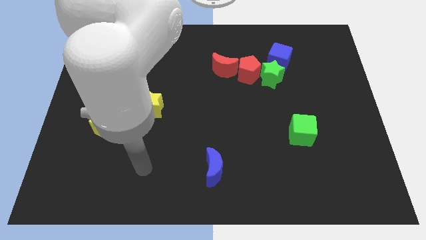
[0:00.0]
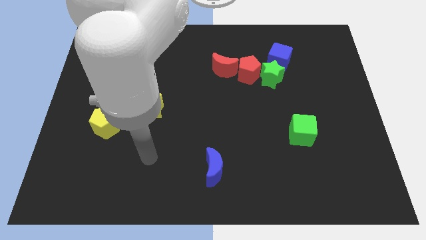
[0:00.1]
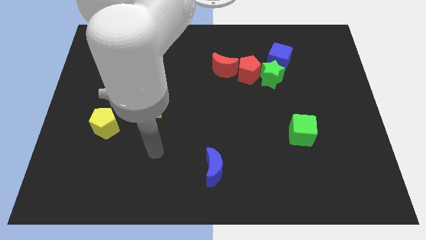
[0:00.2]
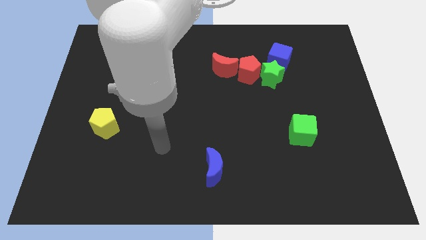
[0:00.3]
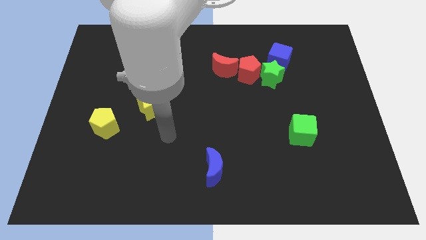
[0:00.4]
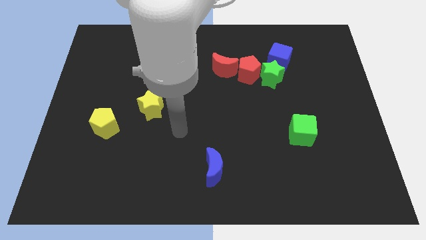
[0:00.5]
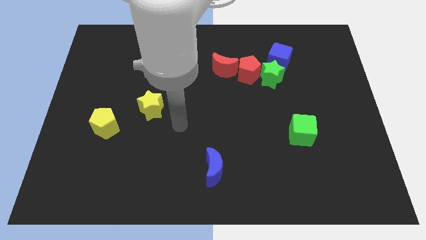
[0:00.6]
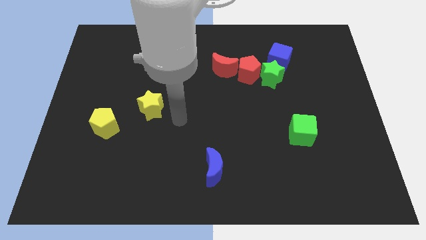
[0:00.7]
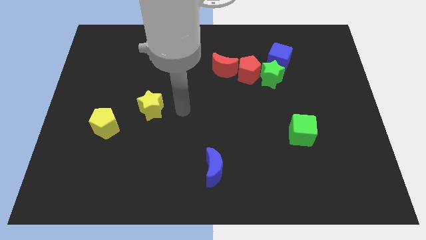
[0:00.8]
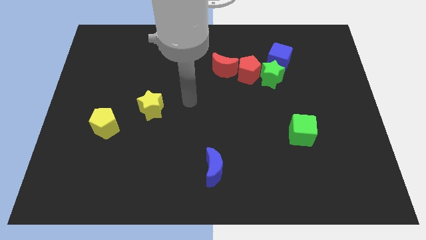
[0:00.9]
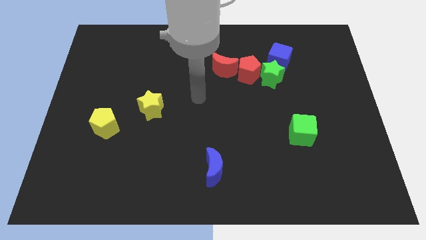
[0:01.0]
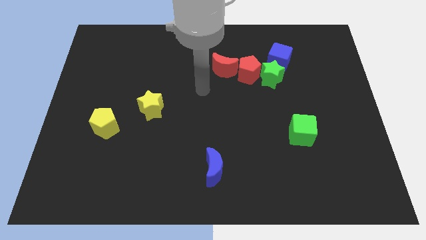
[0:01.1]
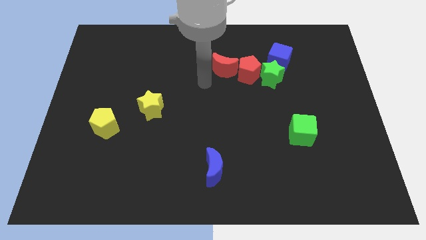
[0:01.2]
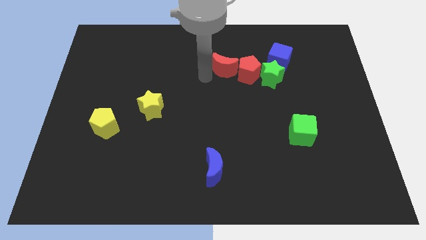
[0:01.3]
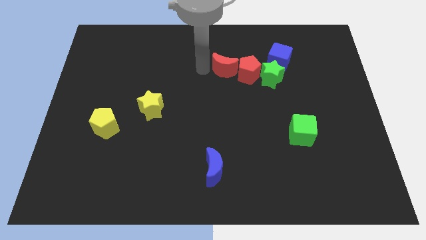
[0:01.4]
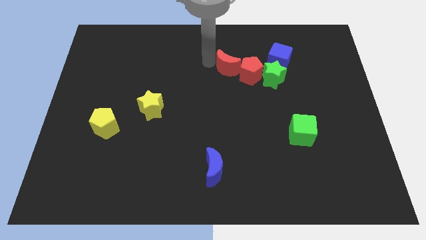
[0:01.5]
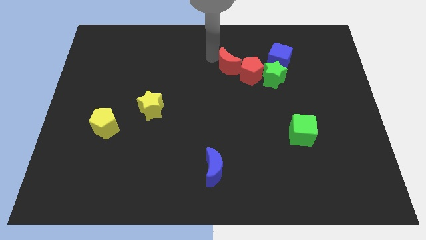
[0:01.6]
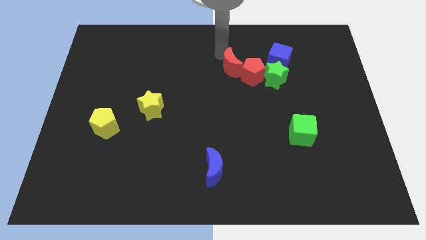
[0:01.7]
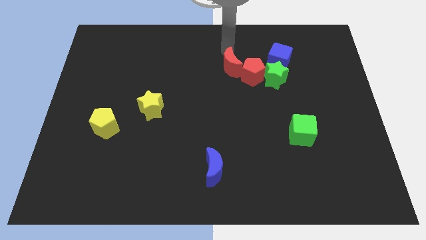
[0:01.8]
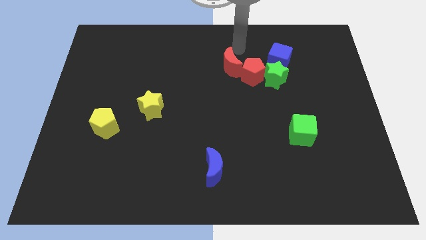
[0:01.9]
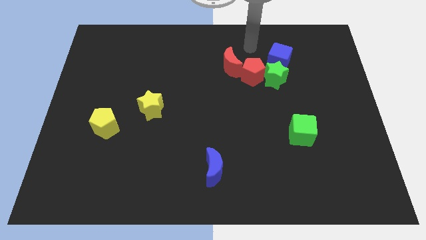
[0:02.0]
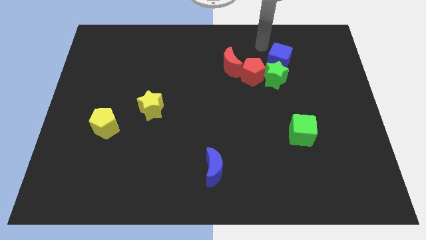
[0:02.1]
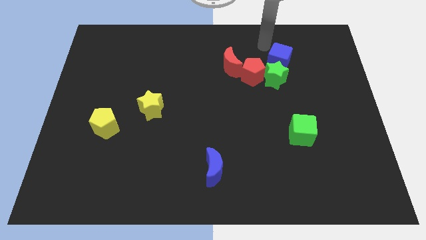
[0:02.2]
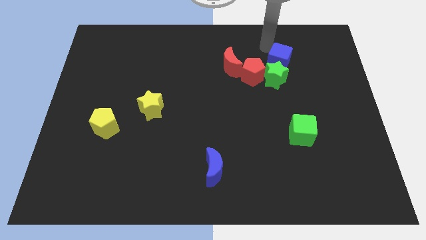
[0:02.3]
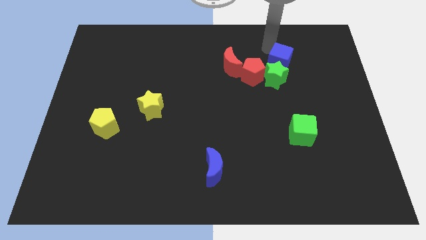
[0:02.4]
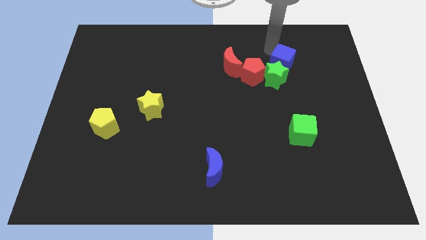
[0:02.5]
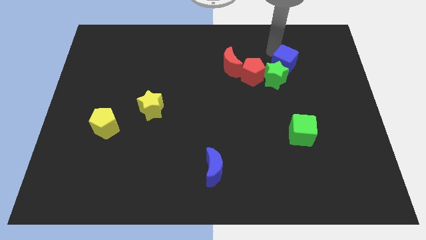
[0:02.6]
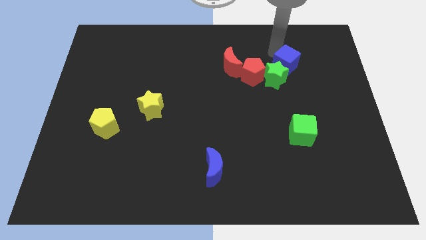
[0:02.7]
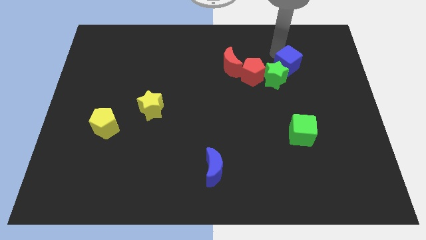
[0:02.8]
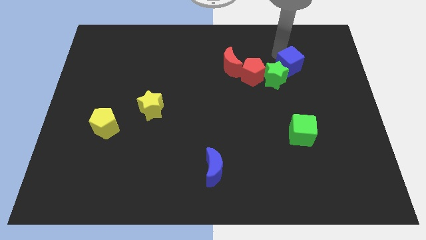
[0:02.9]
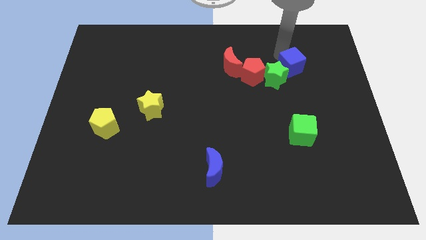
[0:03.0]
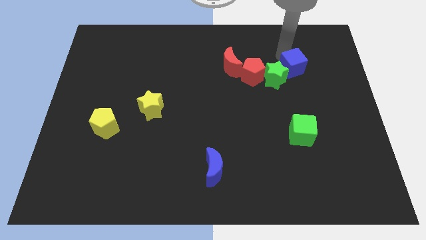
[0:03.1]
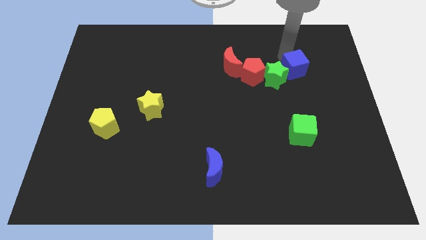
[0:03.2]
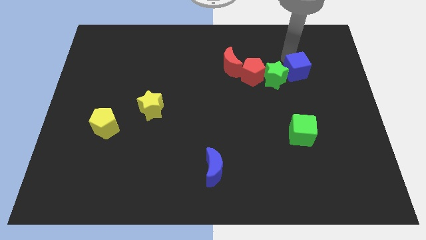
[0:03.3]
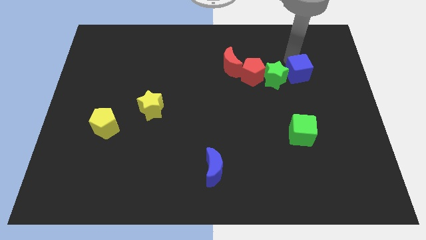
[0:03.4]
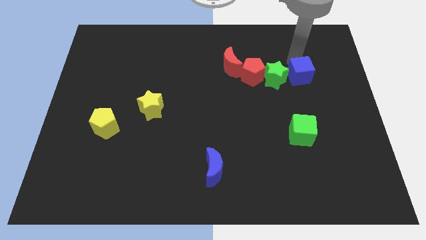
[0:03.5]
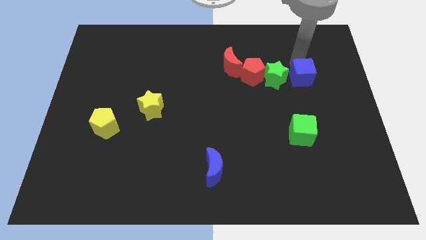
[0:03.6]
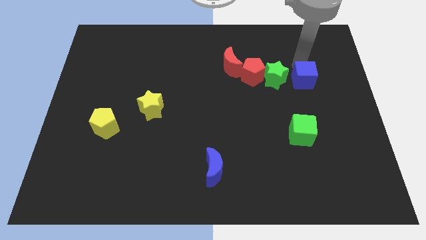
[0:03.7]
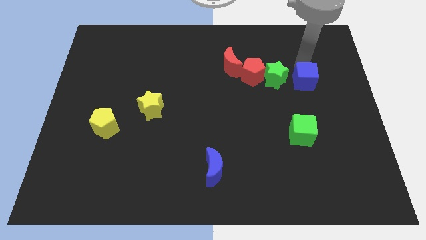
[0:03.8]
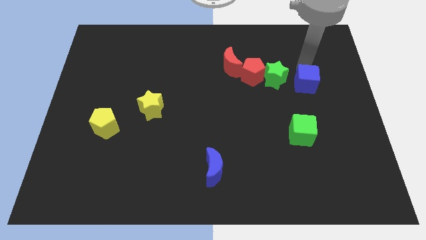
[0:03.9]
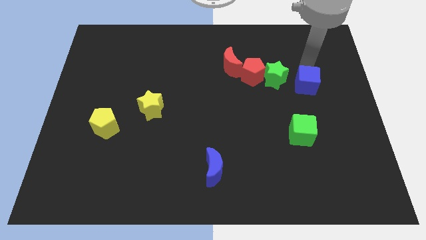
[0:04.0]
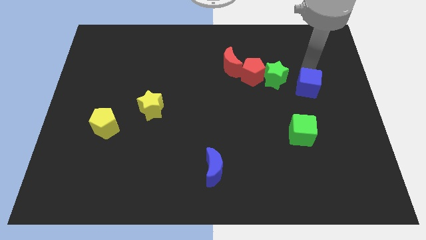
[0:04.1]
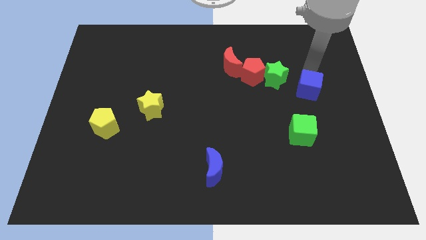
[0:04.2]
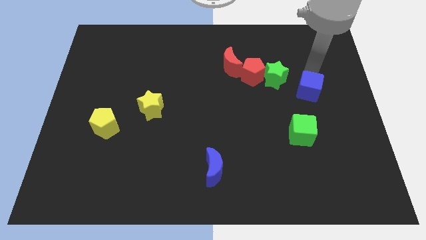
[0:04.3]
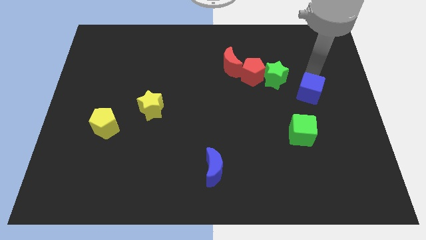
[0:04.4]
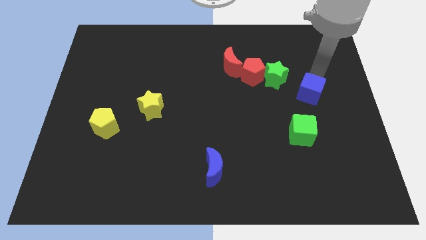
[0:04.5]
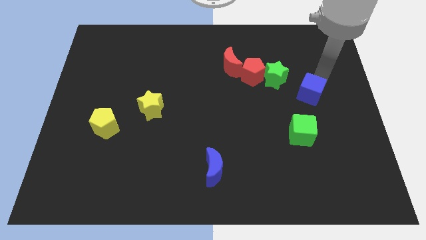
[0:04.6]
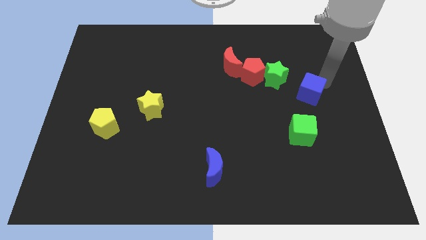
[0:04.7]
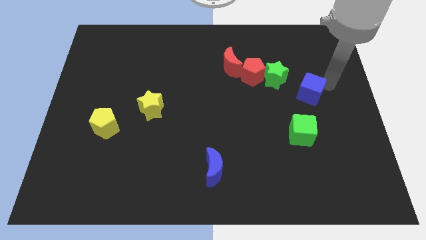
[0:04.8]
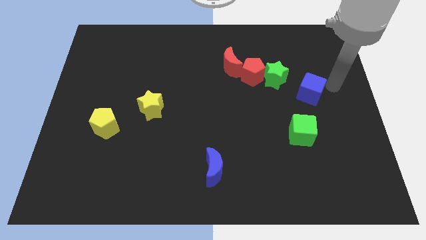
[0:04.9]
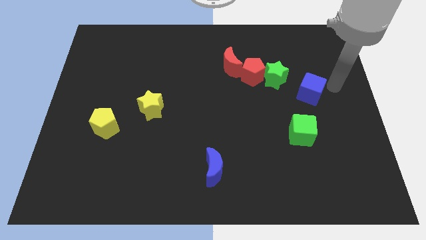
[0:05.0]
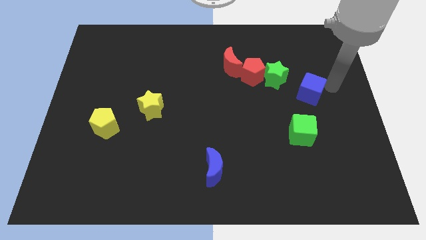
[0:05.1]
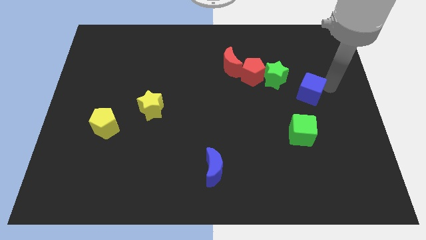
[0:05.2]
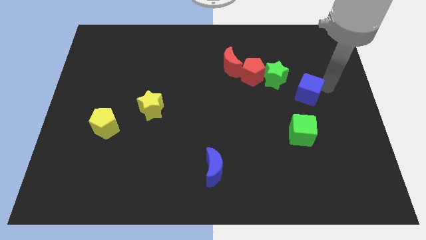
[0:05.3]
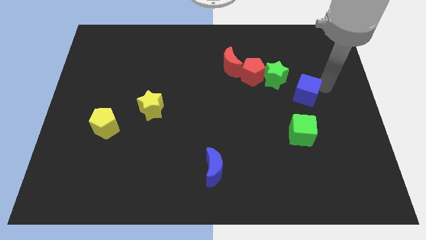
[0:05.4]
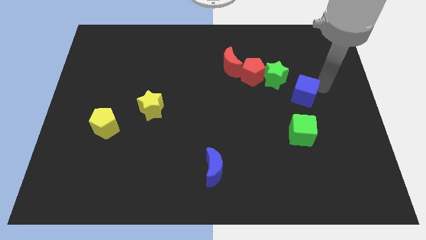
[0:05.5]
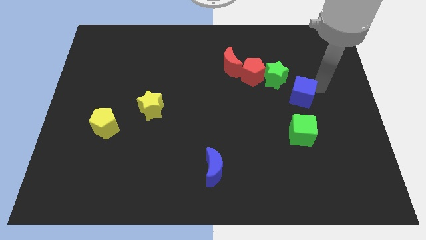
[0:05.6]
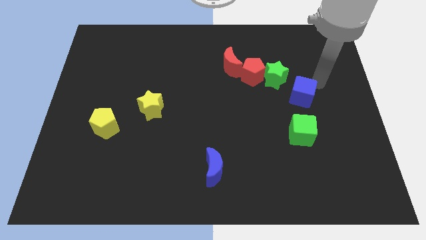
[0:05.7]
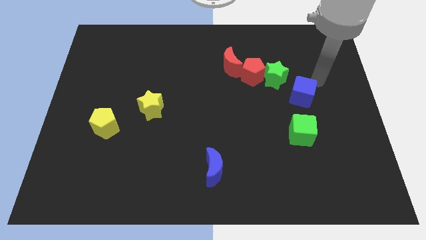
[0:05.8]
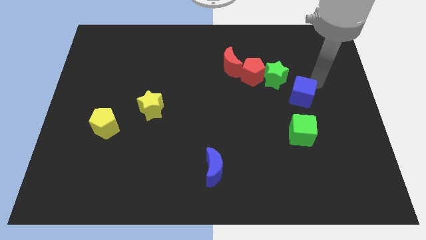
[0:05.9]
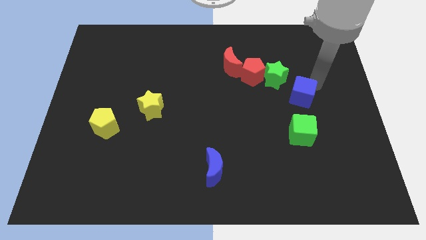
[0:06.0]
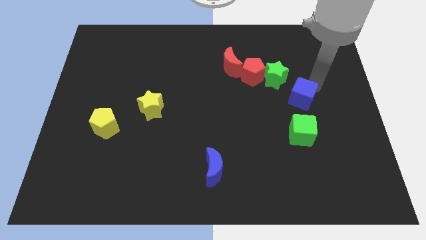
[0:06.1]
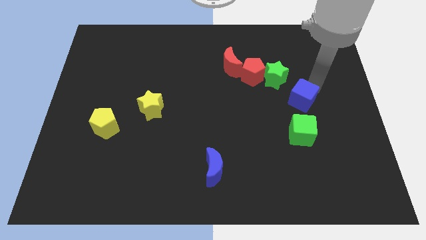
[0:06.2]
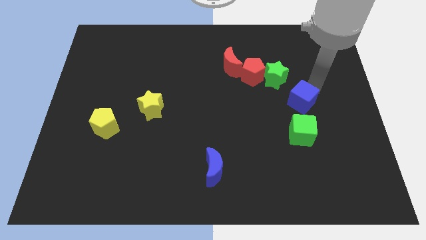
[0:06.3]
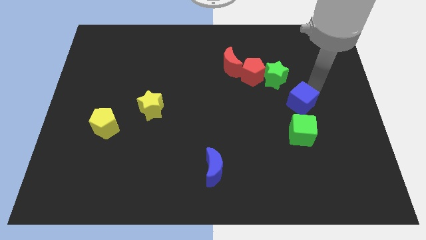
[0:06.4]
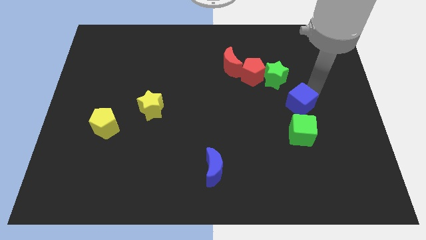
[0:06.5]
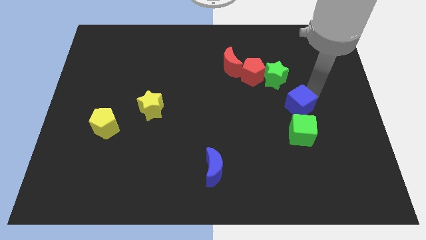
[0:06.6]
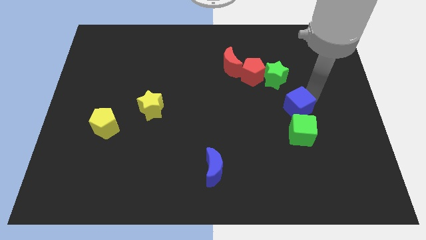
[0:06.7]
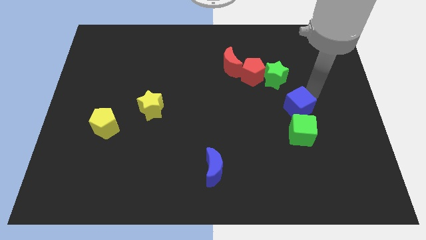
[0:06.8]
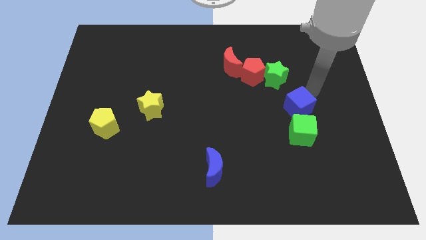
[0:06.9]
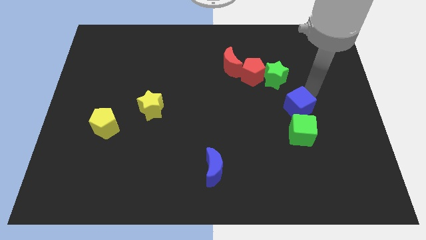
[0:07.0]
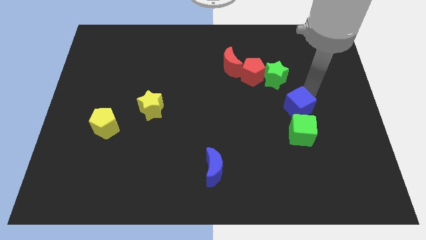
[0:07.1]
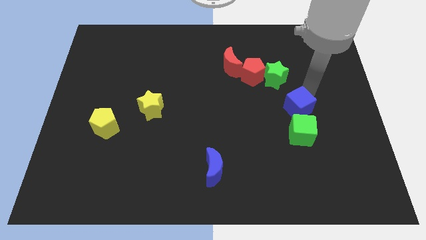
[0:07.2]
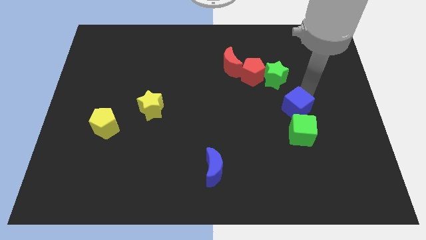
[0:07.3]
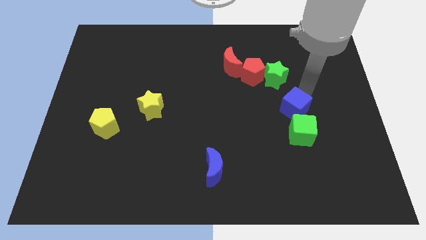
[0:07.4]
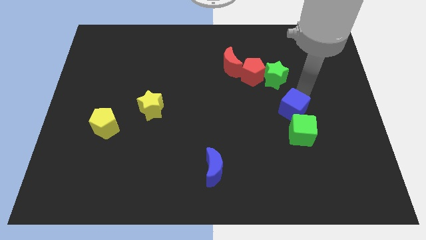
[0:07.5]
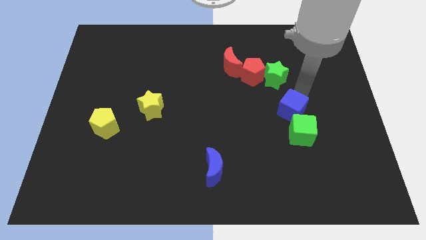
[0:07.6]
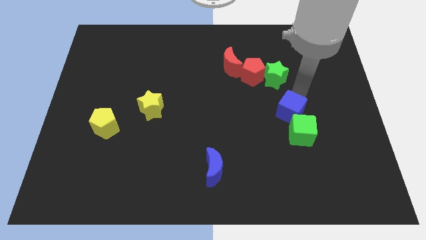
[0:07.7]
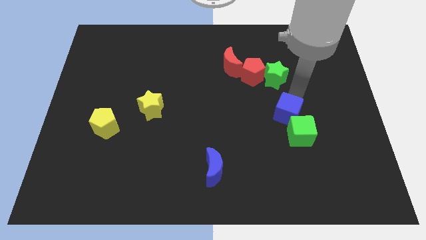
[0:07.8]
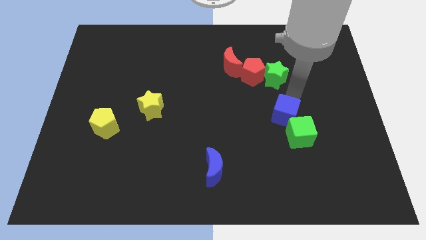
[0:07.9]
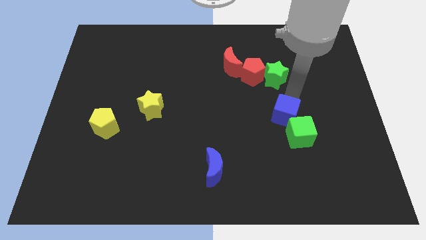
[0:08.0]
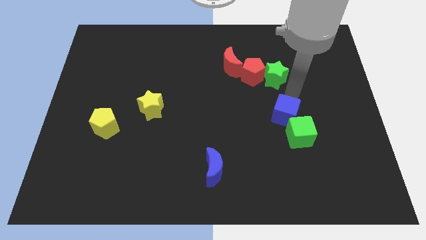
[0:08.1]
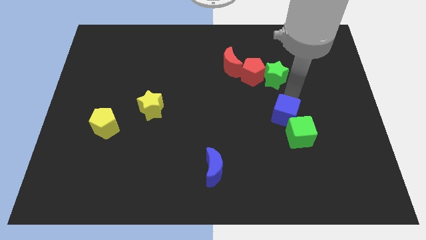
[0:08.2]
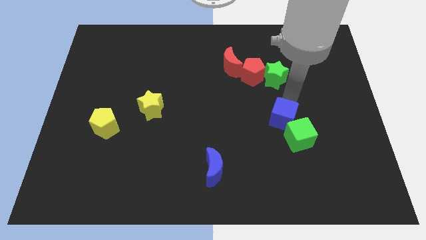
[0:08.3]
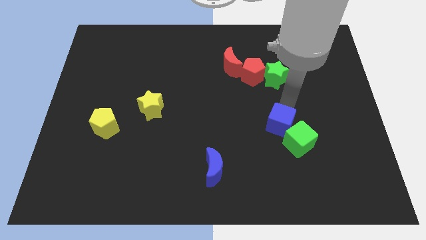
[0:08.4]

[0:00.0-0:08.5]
move the blue cube downwards
